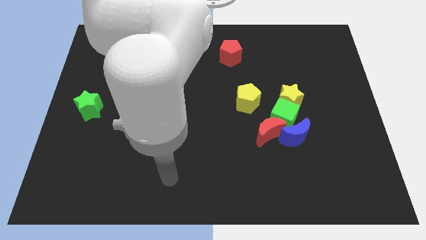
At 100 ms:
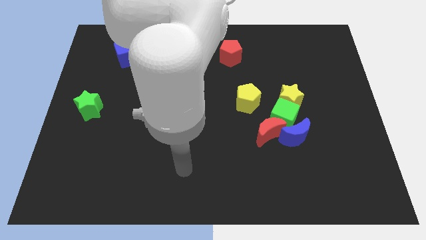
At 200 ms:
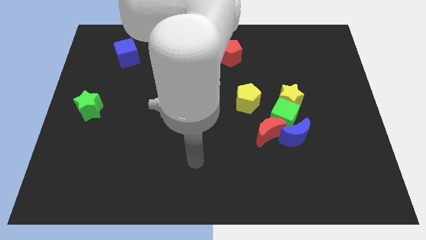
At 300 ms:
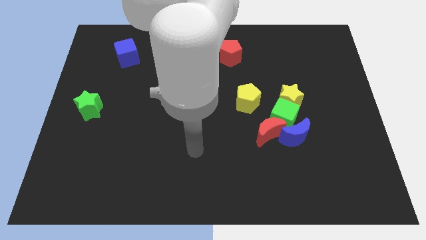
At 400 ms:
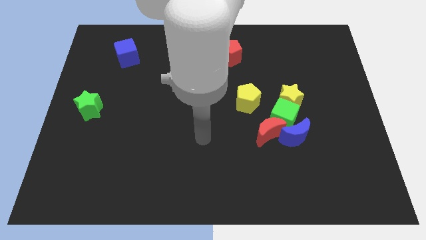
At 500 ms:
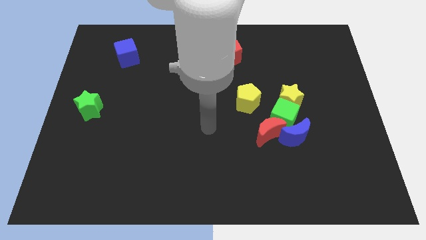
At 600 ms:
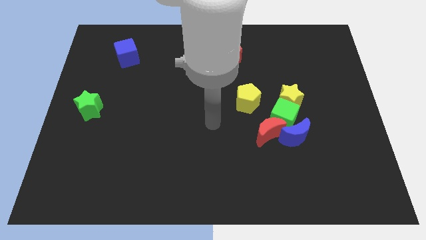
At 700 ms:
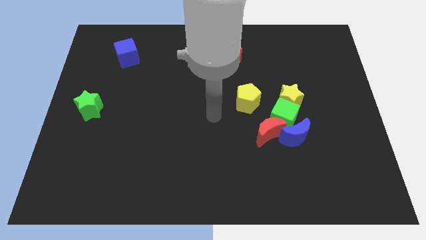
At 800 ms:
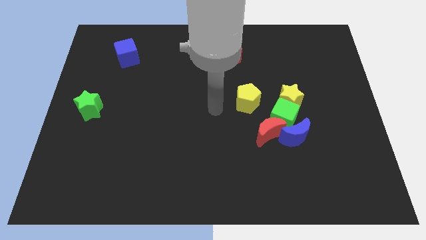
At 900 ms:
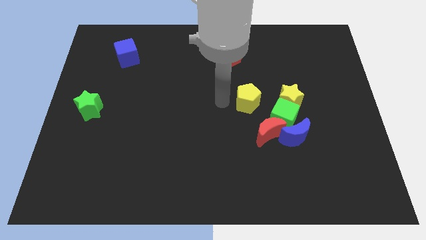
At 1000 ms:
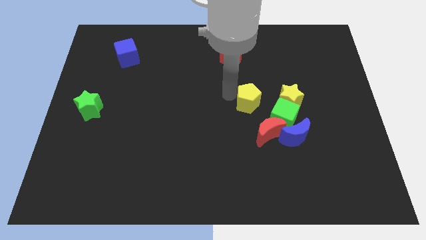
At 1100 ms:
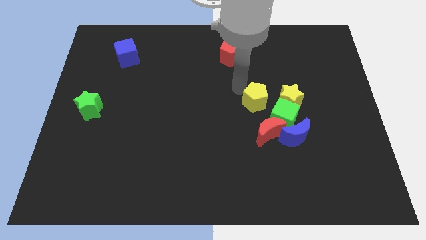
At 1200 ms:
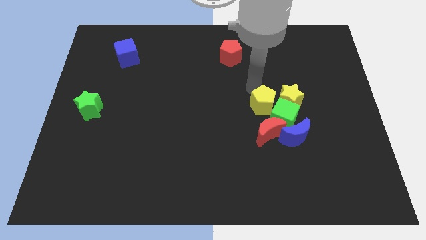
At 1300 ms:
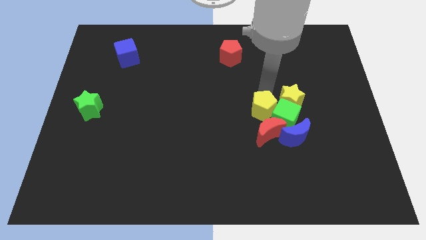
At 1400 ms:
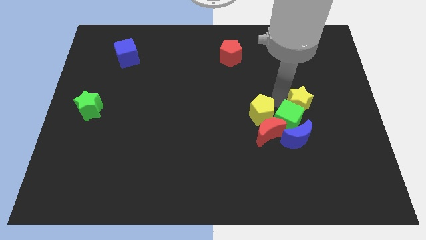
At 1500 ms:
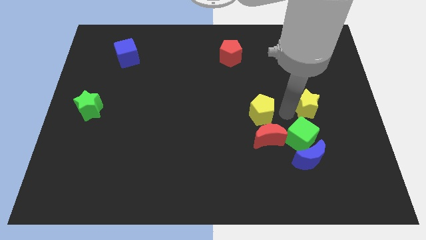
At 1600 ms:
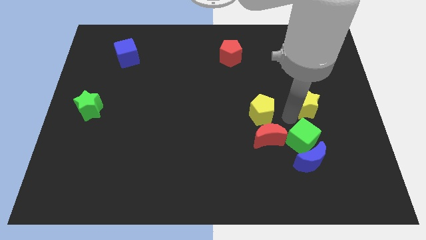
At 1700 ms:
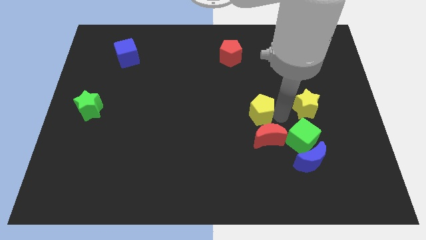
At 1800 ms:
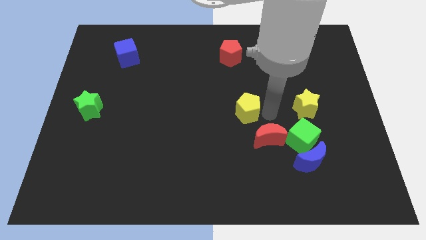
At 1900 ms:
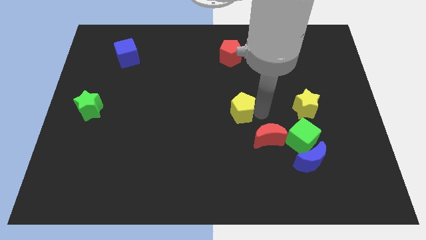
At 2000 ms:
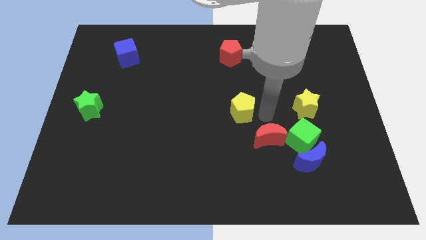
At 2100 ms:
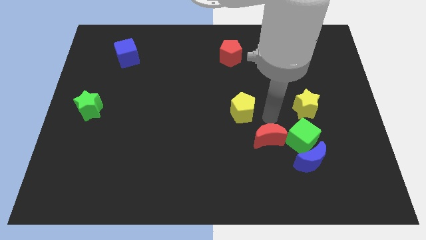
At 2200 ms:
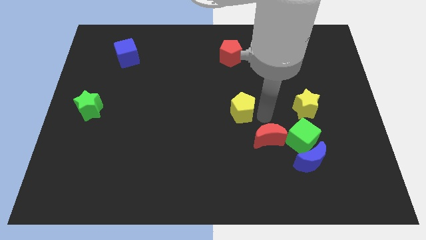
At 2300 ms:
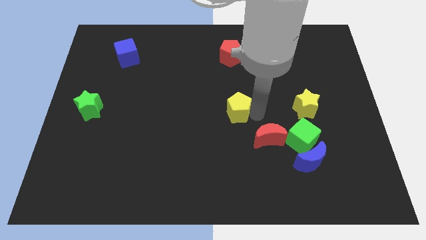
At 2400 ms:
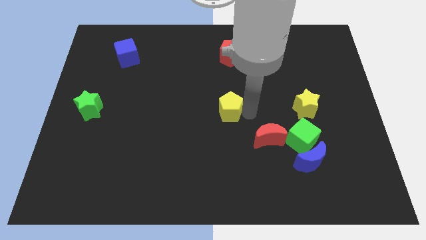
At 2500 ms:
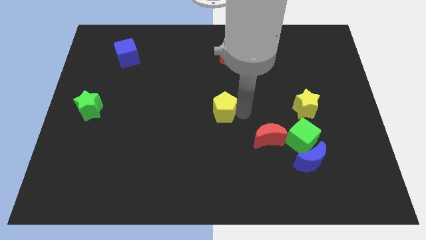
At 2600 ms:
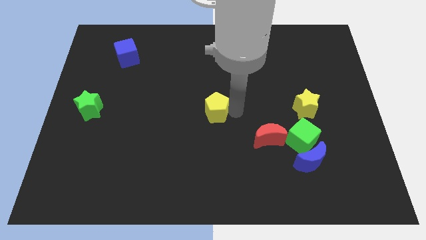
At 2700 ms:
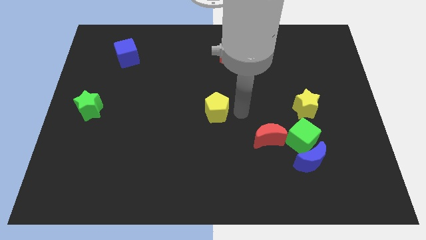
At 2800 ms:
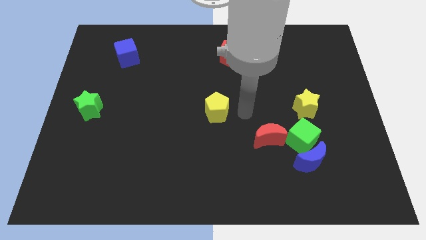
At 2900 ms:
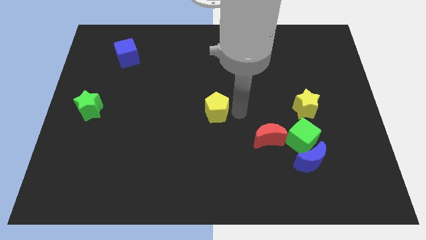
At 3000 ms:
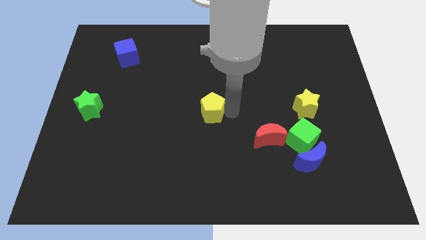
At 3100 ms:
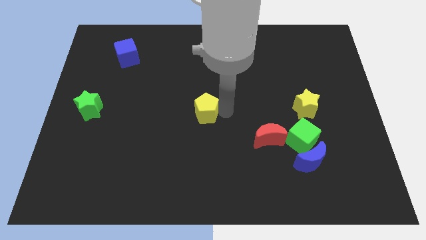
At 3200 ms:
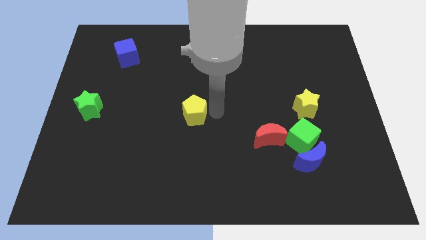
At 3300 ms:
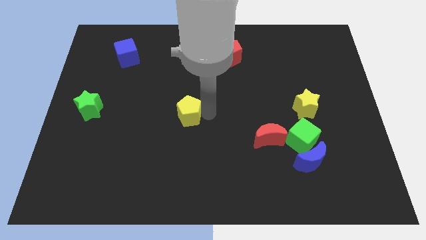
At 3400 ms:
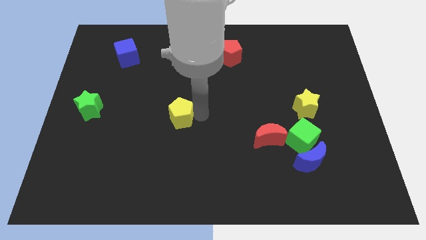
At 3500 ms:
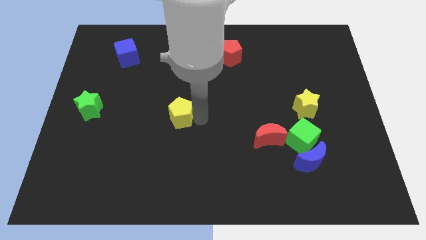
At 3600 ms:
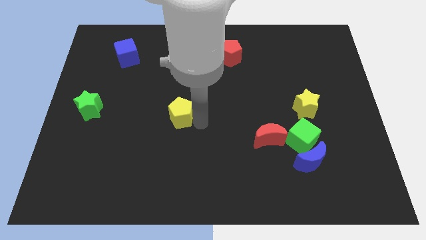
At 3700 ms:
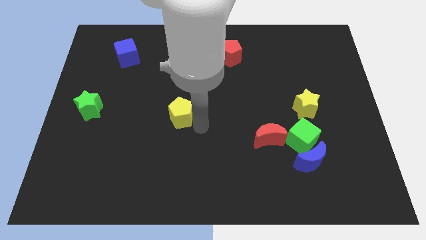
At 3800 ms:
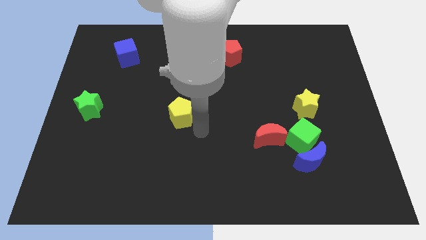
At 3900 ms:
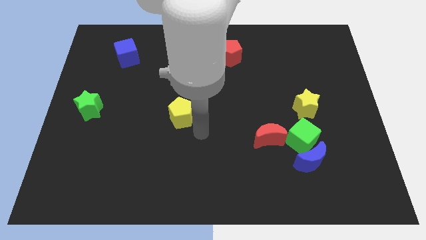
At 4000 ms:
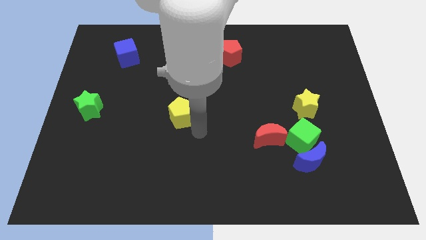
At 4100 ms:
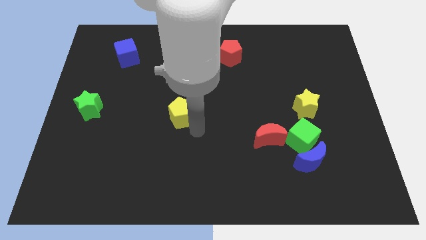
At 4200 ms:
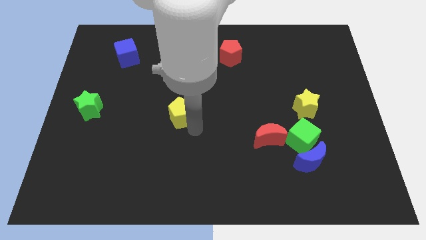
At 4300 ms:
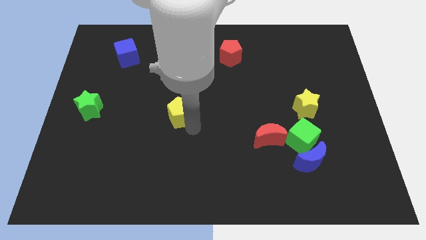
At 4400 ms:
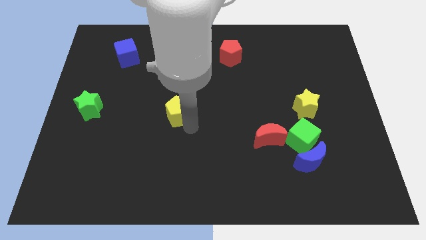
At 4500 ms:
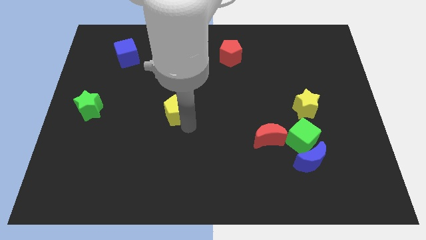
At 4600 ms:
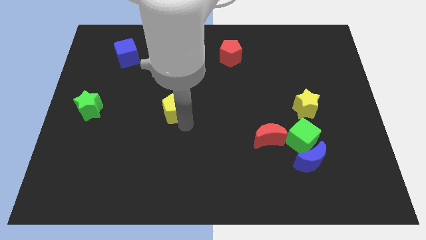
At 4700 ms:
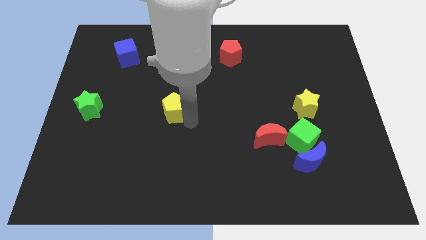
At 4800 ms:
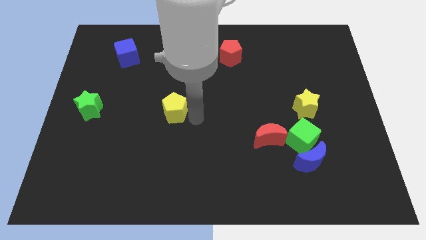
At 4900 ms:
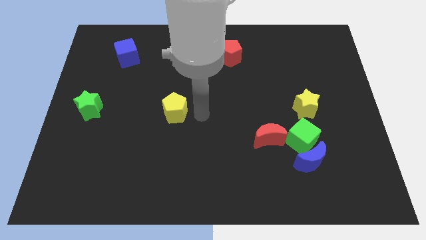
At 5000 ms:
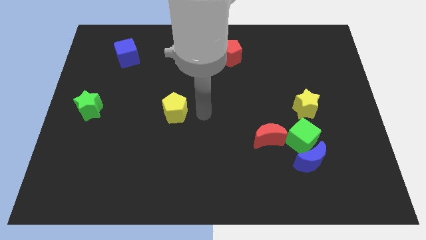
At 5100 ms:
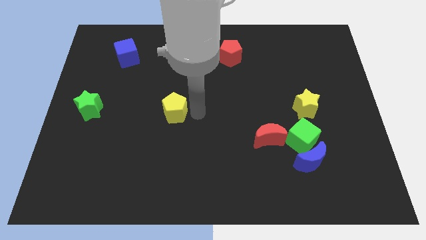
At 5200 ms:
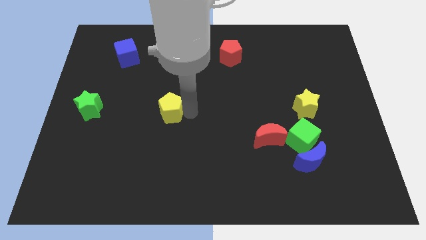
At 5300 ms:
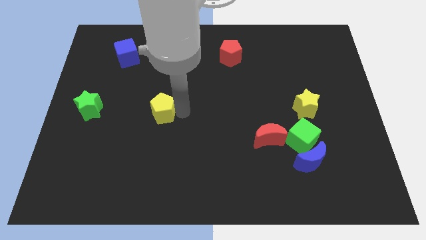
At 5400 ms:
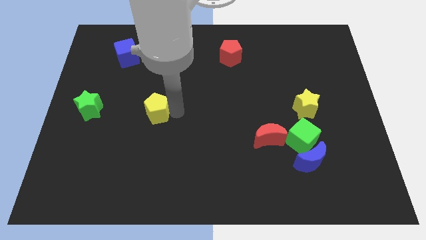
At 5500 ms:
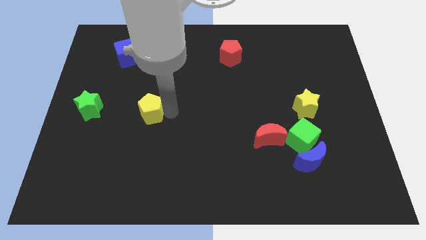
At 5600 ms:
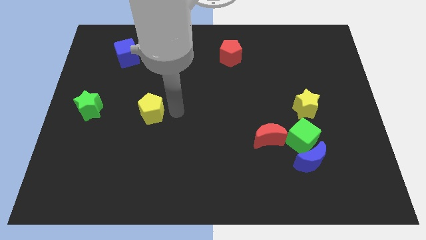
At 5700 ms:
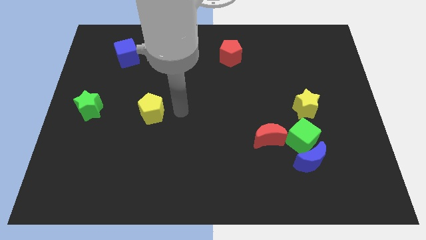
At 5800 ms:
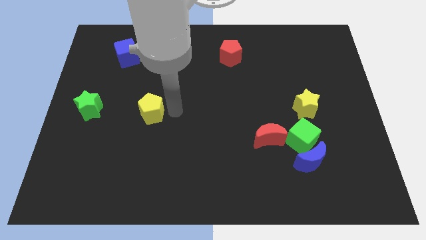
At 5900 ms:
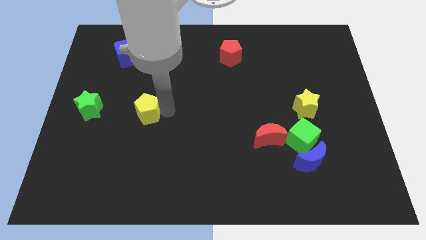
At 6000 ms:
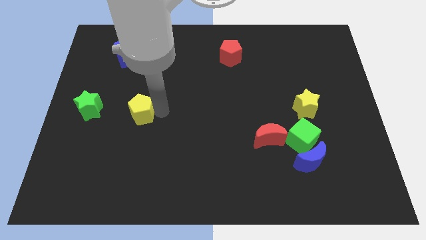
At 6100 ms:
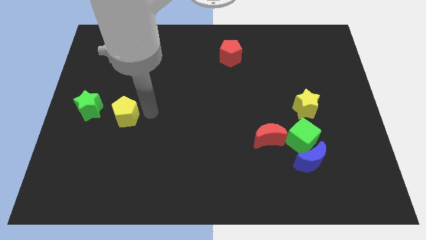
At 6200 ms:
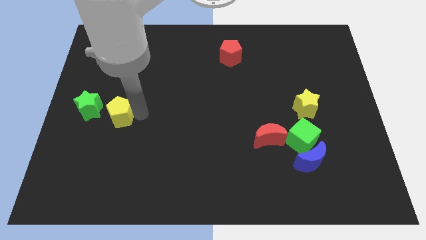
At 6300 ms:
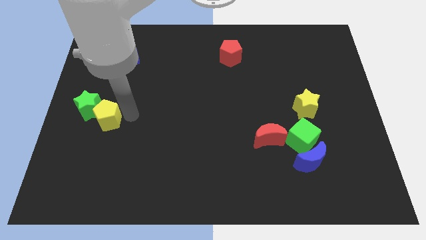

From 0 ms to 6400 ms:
put the yellow pentagon towards the green star

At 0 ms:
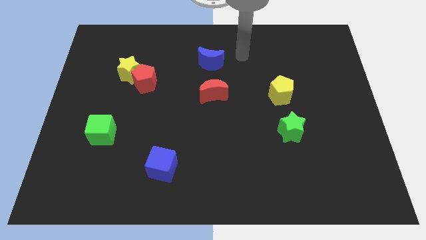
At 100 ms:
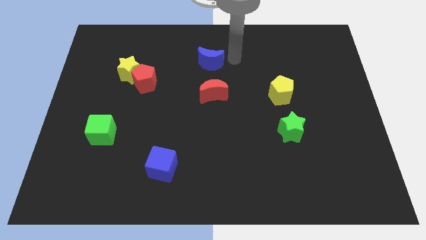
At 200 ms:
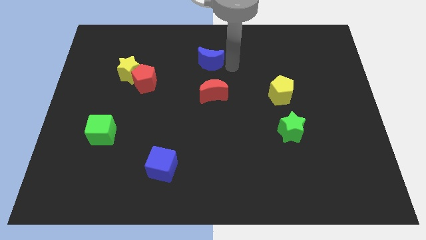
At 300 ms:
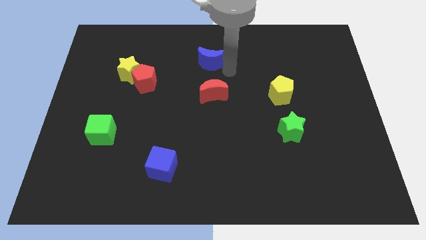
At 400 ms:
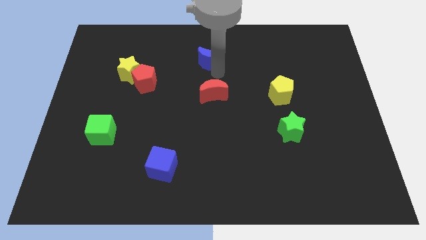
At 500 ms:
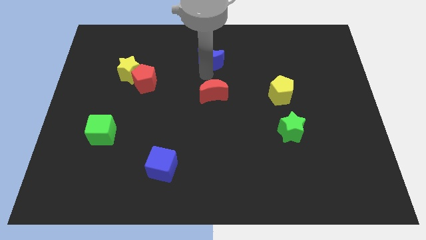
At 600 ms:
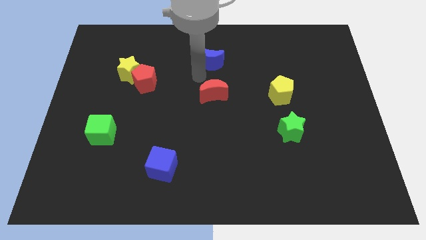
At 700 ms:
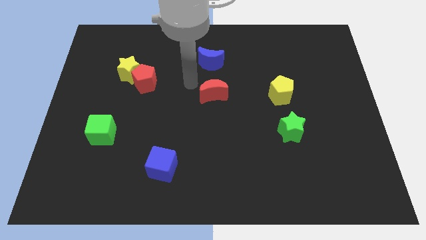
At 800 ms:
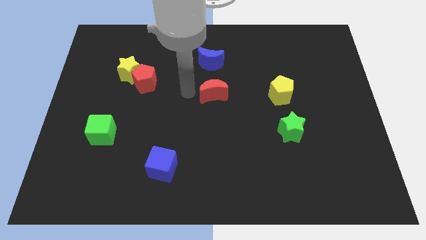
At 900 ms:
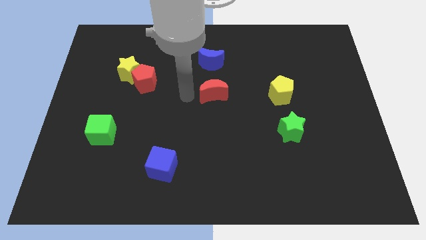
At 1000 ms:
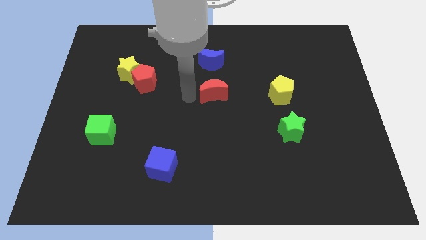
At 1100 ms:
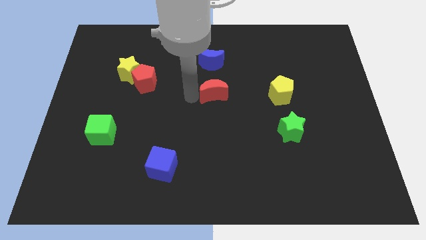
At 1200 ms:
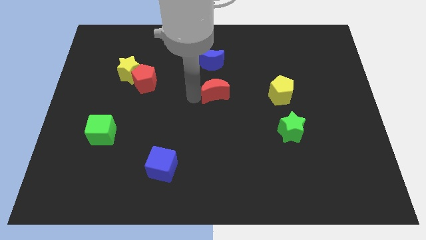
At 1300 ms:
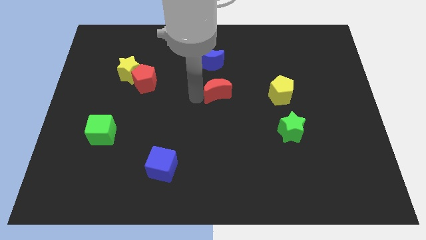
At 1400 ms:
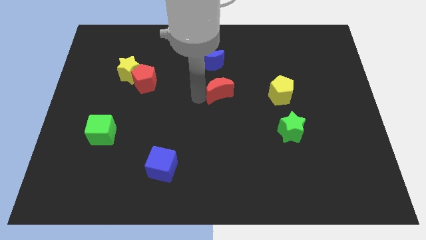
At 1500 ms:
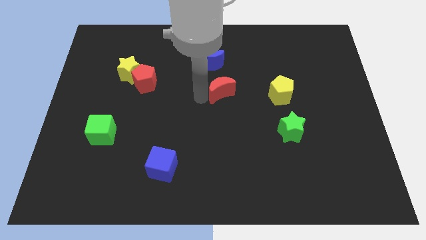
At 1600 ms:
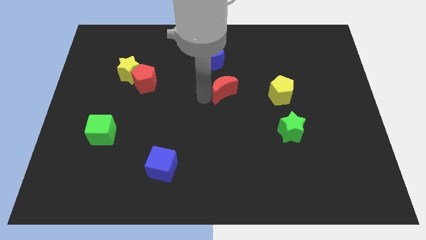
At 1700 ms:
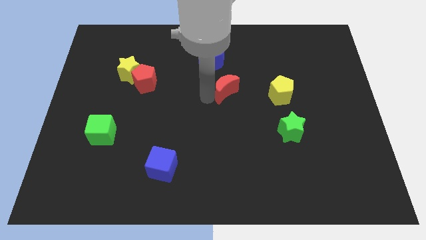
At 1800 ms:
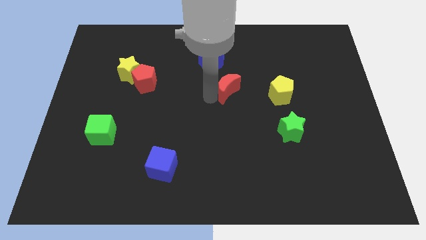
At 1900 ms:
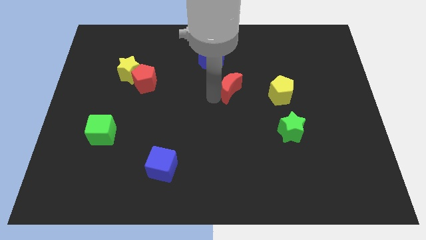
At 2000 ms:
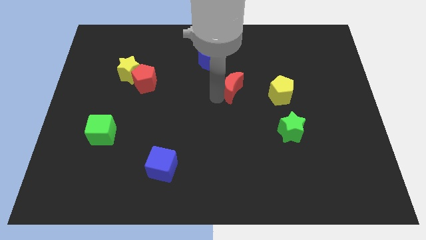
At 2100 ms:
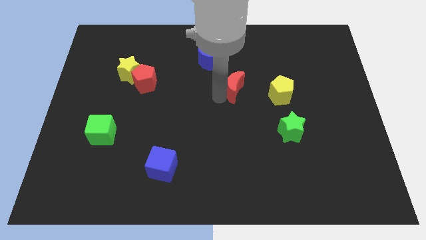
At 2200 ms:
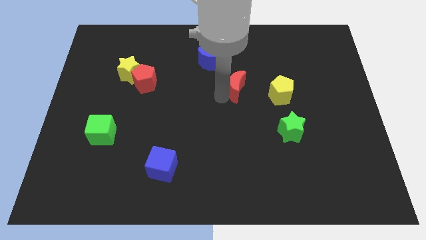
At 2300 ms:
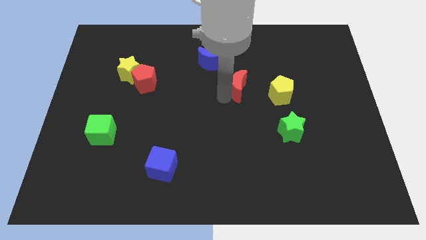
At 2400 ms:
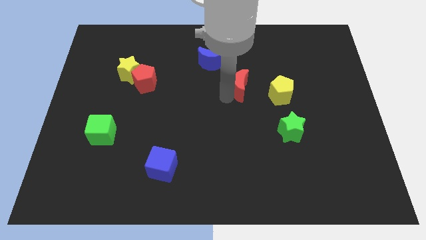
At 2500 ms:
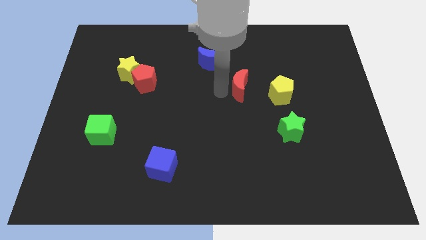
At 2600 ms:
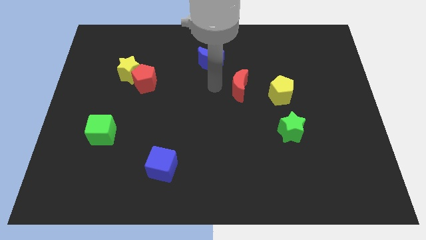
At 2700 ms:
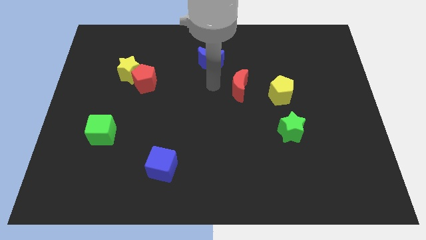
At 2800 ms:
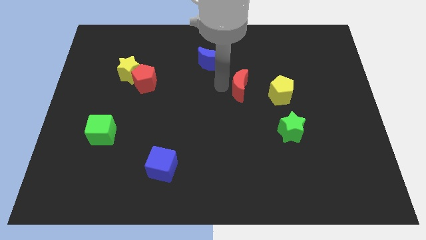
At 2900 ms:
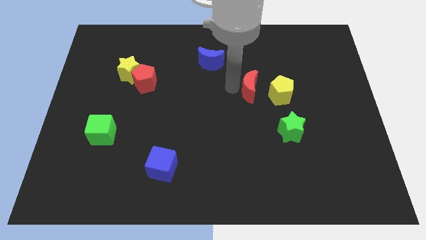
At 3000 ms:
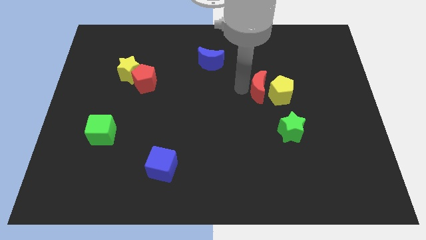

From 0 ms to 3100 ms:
move the red moon to the yellow pentagon
